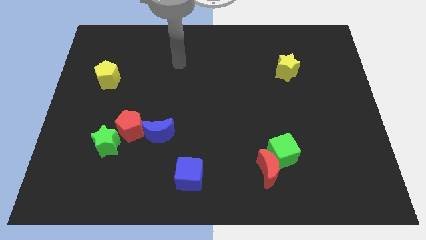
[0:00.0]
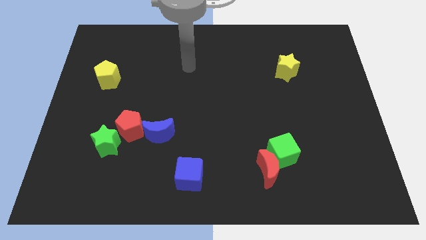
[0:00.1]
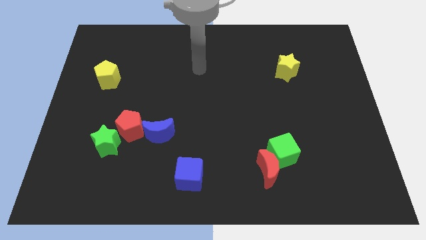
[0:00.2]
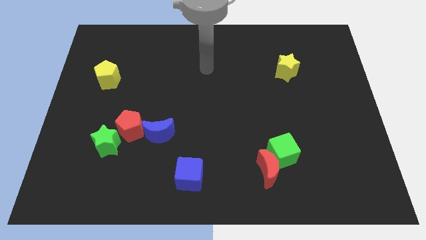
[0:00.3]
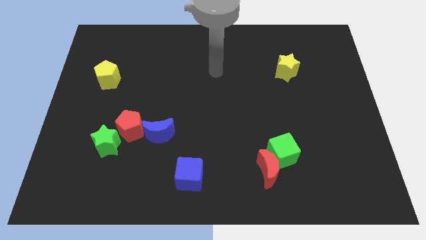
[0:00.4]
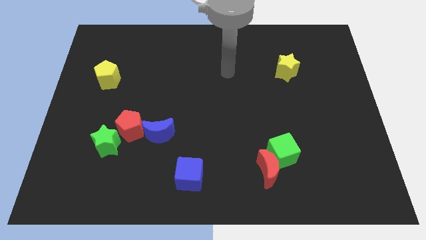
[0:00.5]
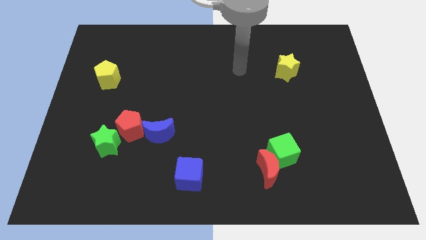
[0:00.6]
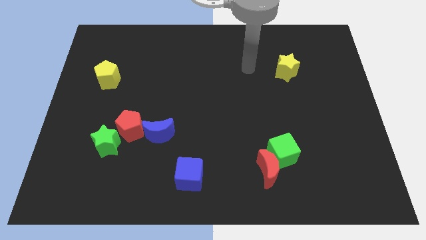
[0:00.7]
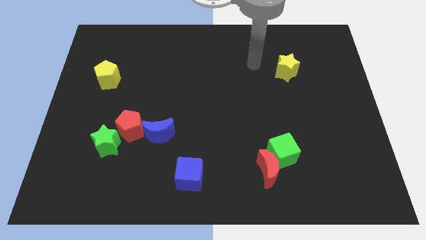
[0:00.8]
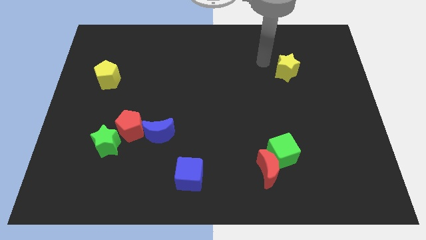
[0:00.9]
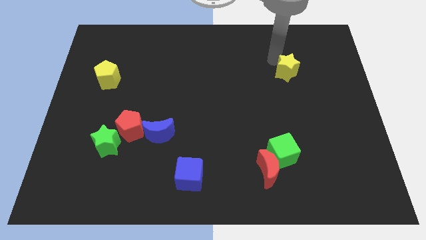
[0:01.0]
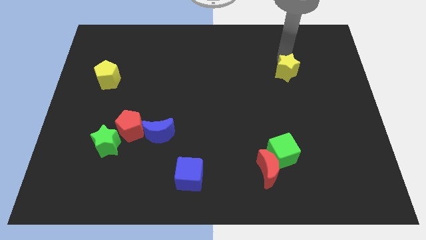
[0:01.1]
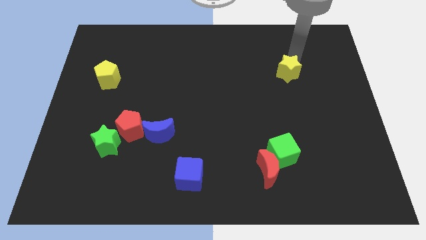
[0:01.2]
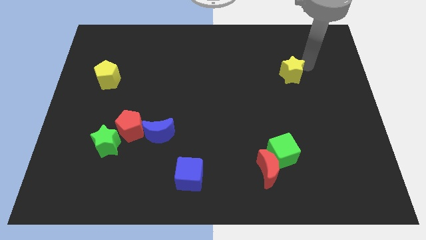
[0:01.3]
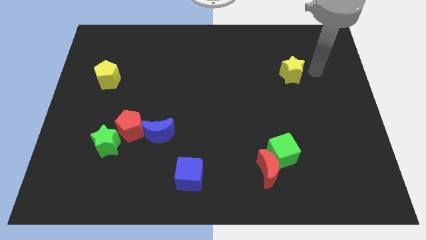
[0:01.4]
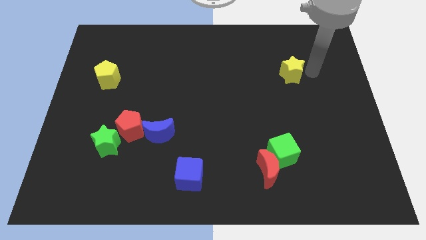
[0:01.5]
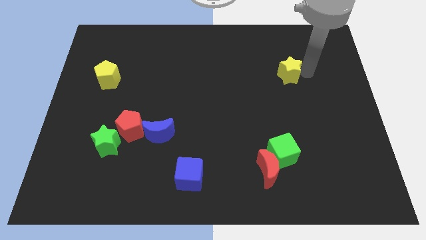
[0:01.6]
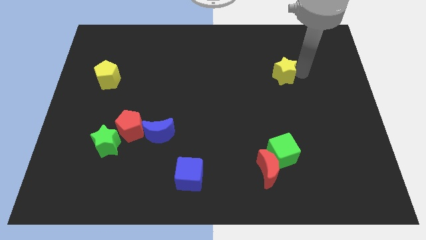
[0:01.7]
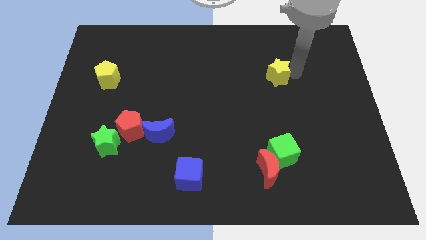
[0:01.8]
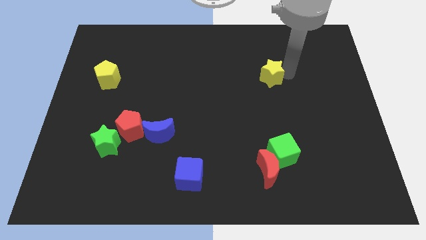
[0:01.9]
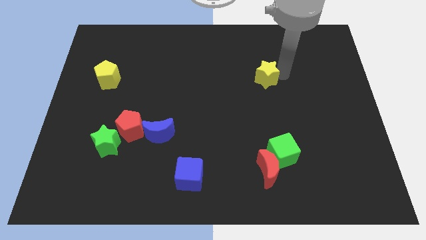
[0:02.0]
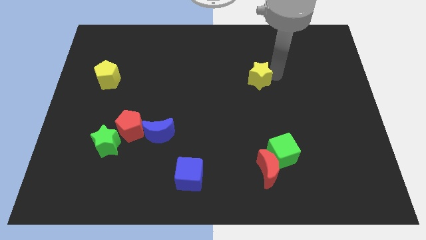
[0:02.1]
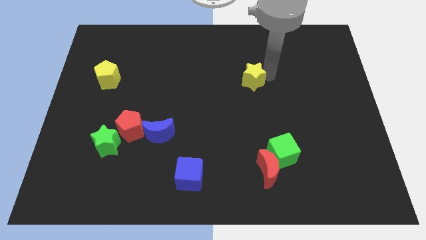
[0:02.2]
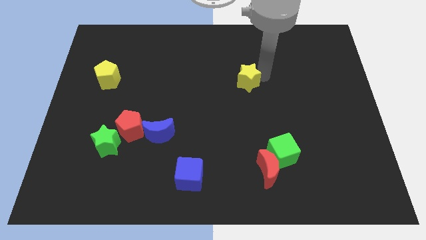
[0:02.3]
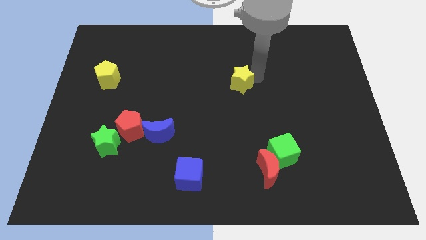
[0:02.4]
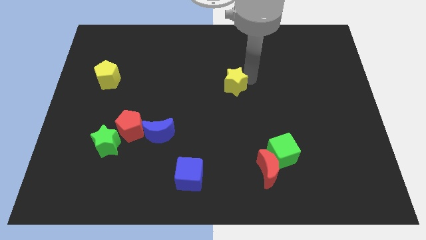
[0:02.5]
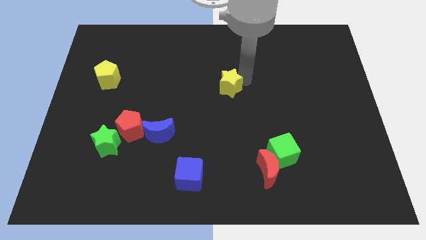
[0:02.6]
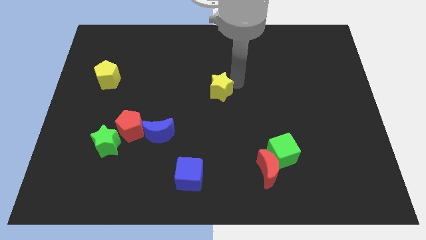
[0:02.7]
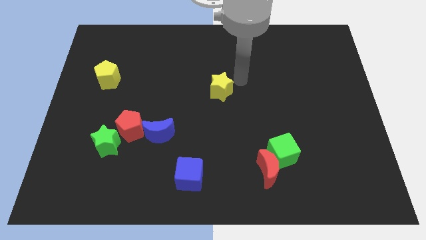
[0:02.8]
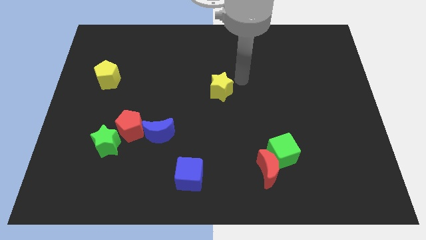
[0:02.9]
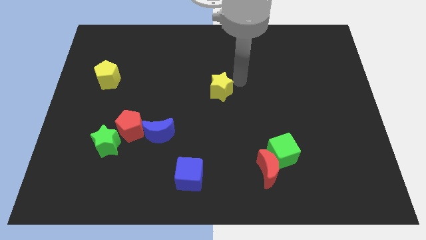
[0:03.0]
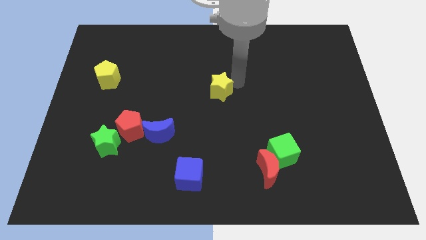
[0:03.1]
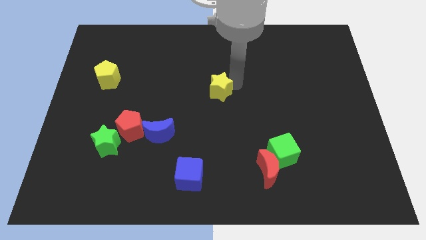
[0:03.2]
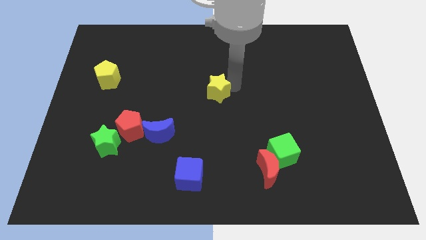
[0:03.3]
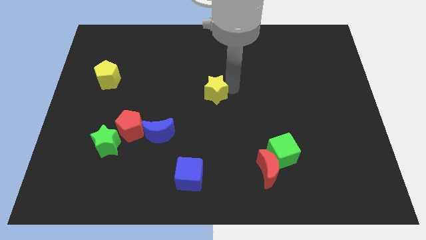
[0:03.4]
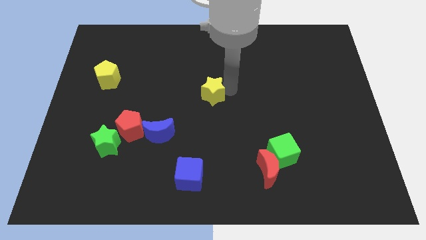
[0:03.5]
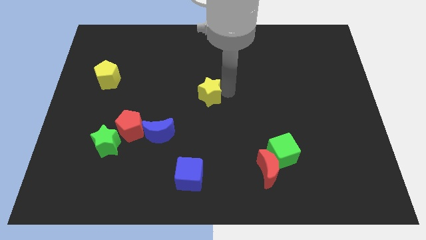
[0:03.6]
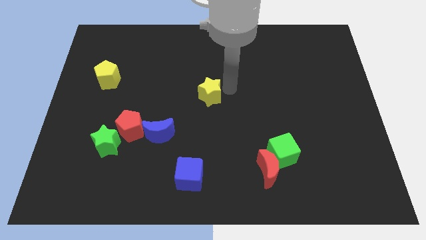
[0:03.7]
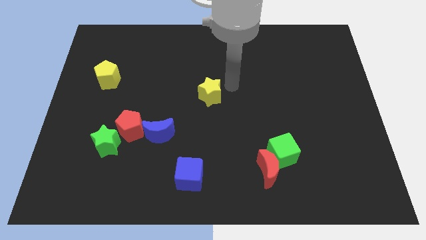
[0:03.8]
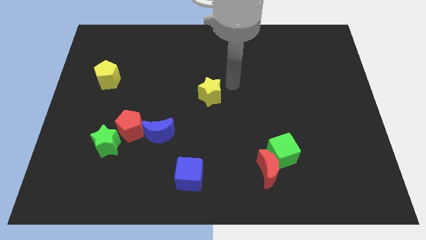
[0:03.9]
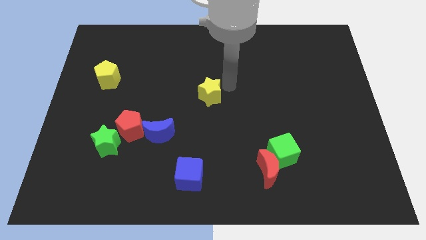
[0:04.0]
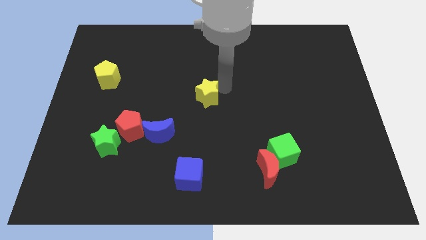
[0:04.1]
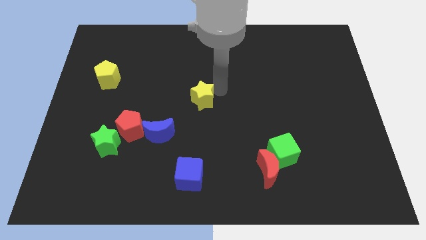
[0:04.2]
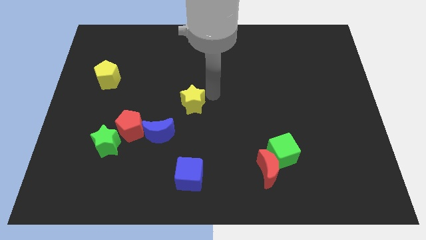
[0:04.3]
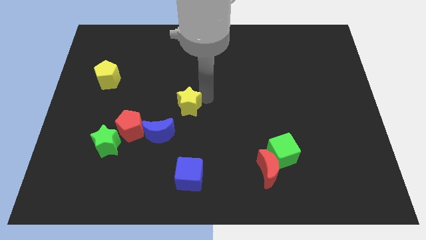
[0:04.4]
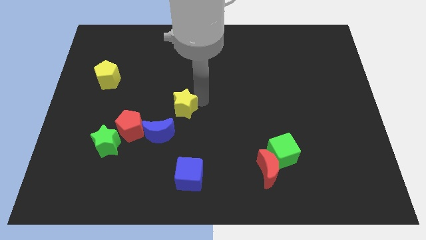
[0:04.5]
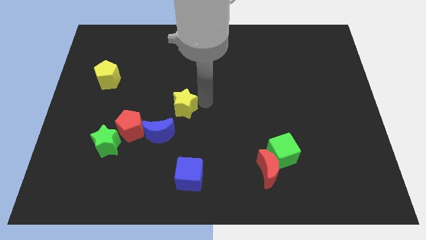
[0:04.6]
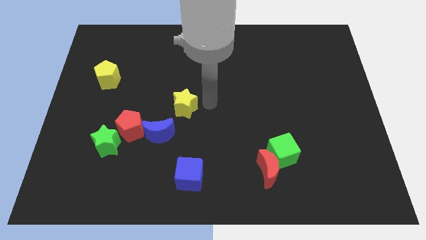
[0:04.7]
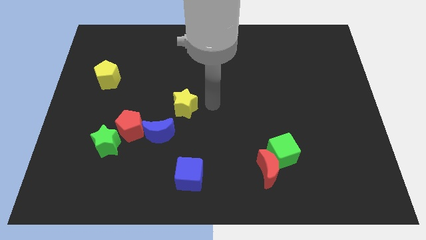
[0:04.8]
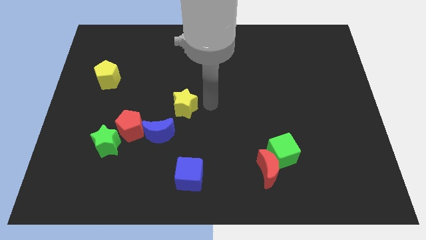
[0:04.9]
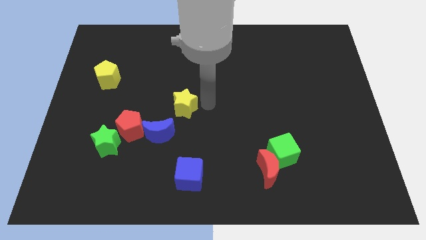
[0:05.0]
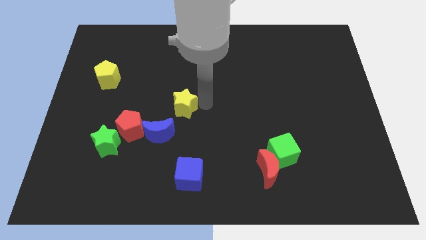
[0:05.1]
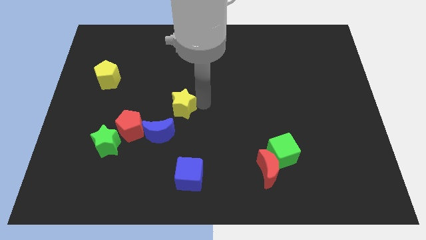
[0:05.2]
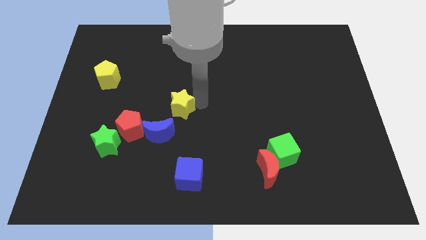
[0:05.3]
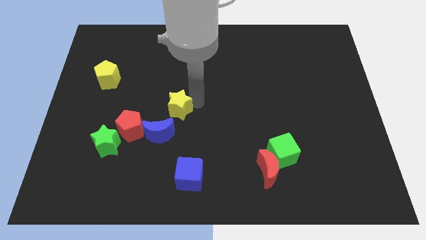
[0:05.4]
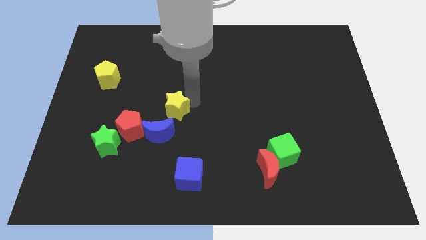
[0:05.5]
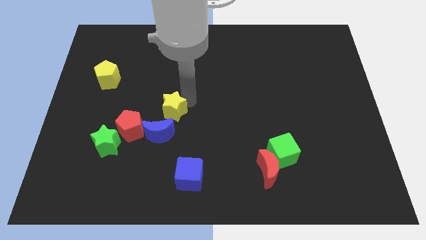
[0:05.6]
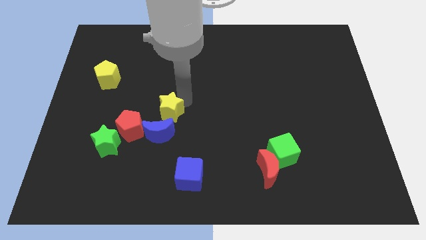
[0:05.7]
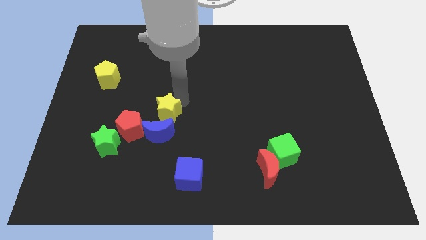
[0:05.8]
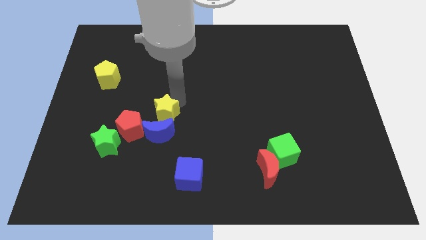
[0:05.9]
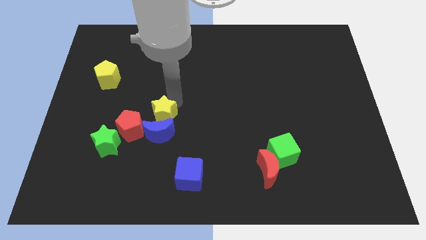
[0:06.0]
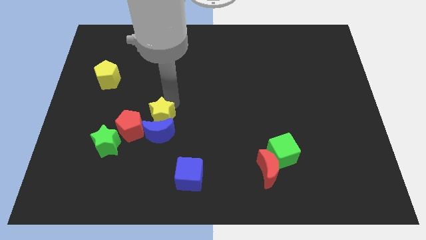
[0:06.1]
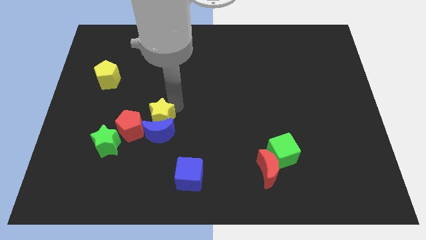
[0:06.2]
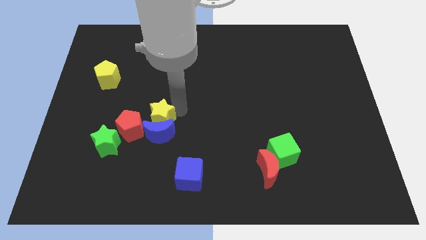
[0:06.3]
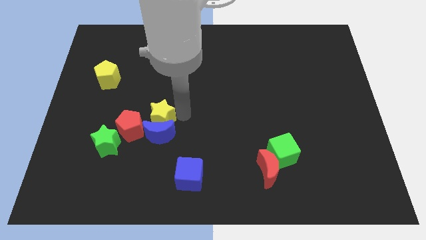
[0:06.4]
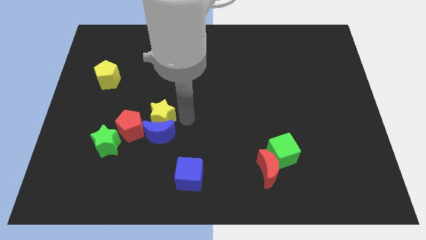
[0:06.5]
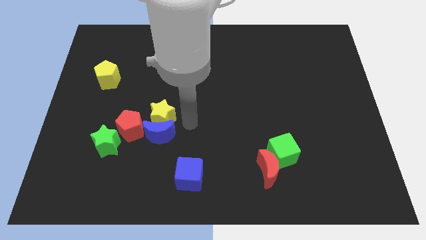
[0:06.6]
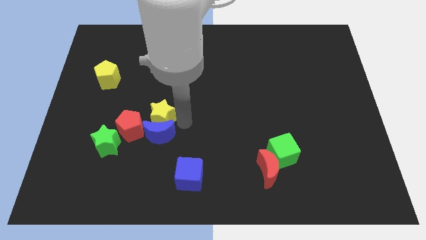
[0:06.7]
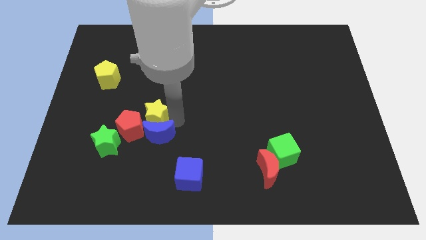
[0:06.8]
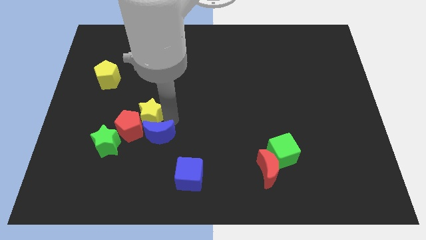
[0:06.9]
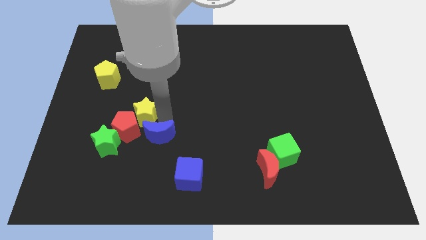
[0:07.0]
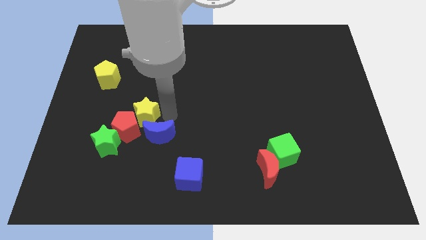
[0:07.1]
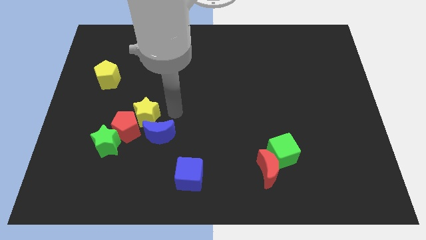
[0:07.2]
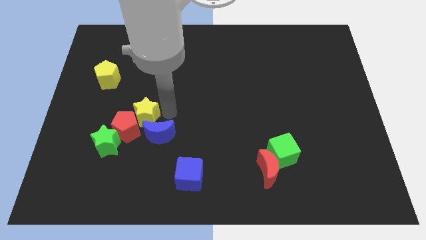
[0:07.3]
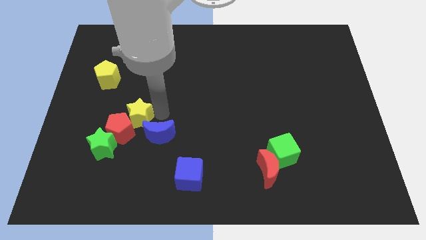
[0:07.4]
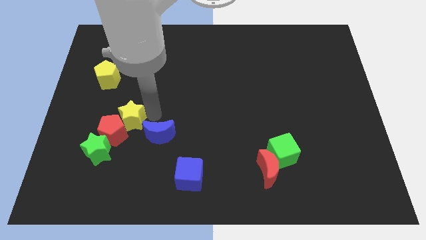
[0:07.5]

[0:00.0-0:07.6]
put the yellow star left of the blue moon
